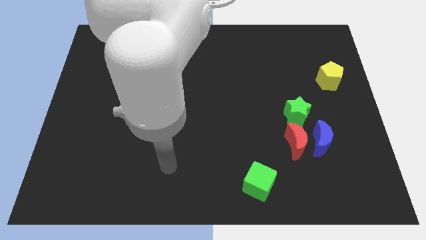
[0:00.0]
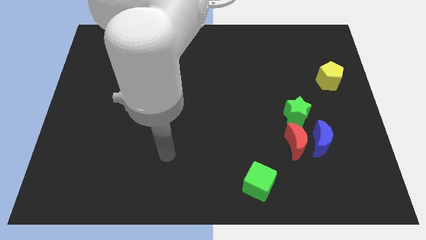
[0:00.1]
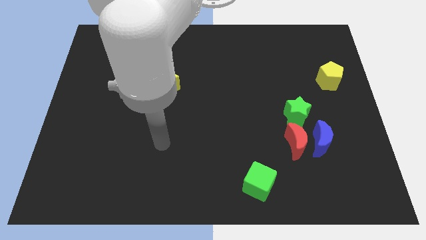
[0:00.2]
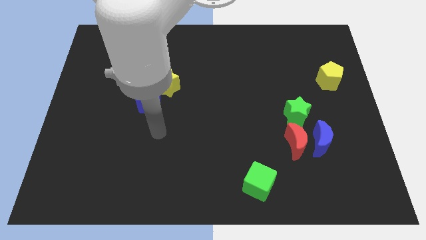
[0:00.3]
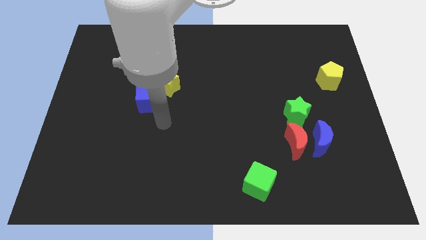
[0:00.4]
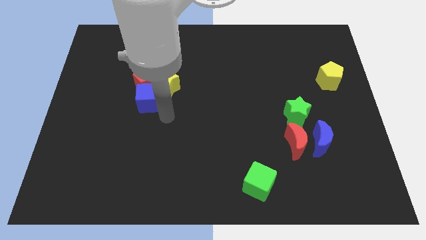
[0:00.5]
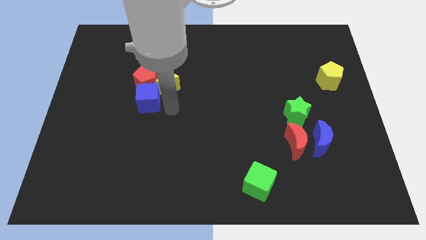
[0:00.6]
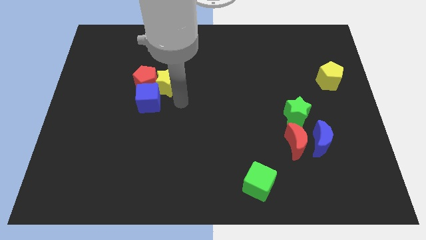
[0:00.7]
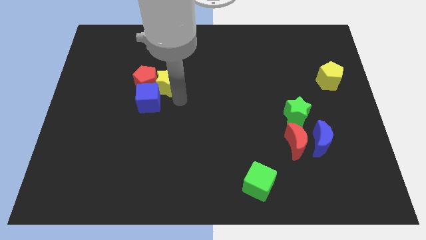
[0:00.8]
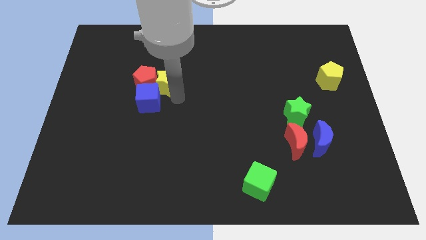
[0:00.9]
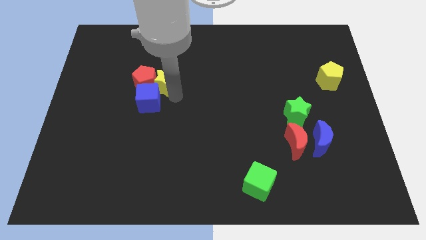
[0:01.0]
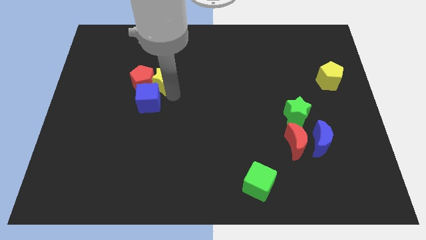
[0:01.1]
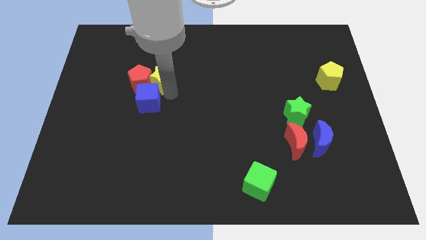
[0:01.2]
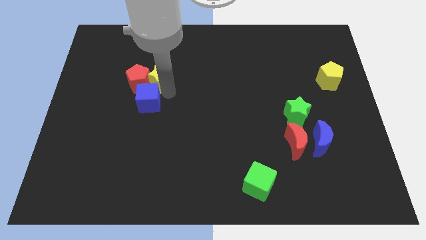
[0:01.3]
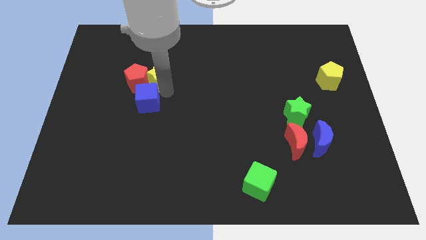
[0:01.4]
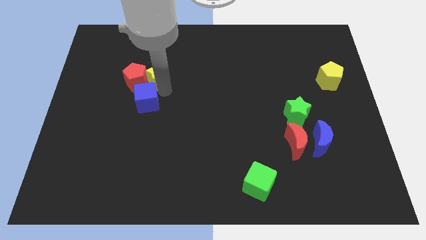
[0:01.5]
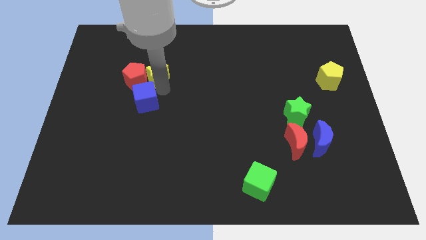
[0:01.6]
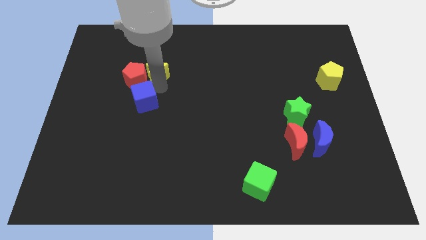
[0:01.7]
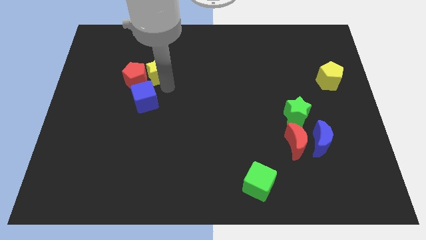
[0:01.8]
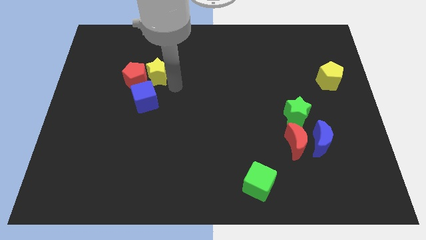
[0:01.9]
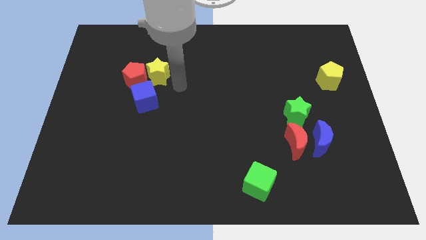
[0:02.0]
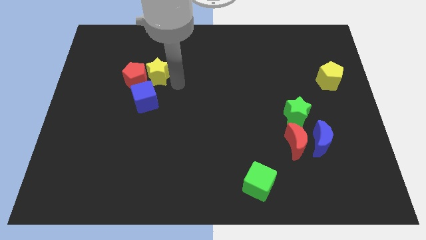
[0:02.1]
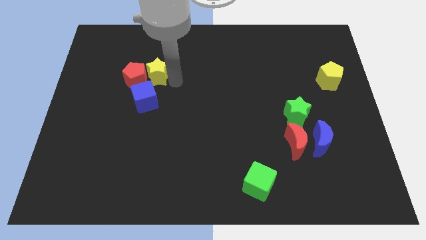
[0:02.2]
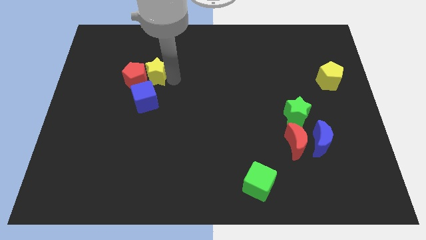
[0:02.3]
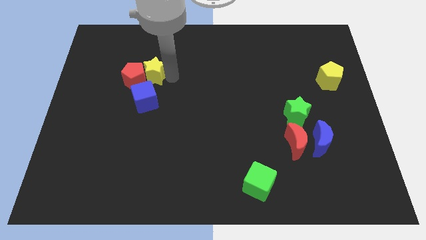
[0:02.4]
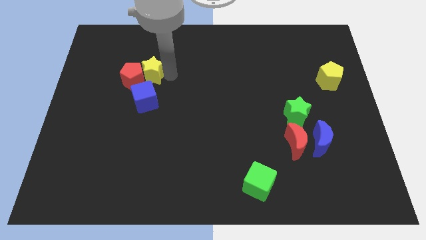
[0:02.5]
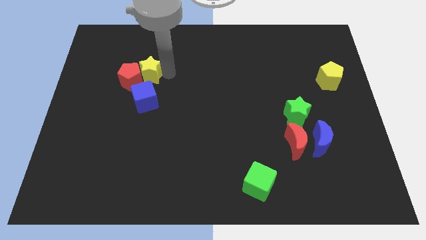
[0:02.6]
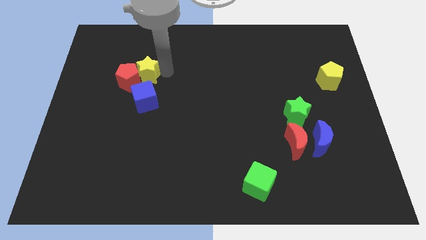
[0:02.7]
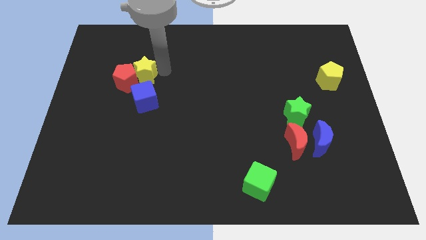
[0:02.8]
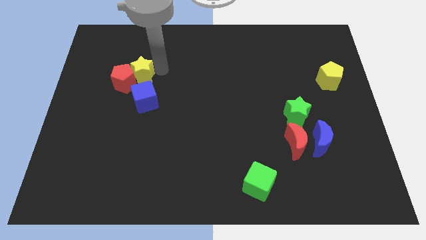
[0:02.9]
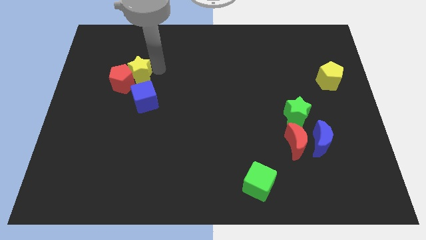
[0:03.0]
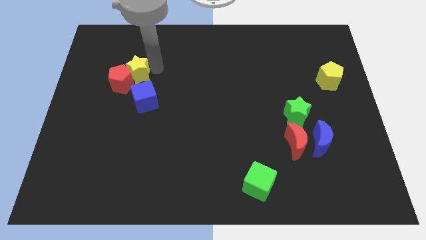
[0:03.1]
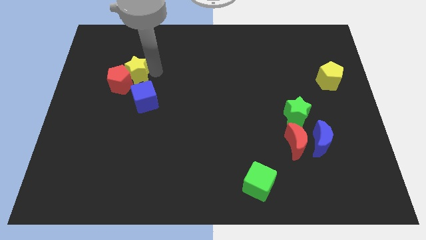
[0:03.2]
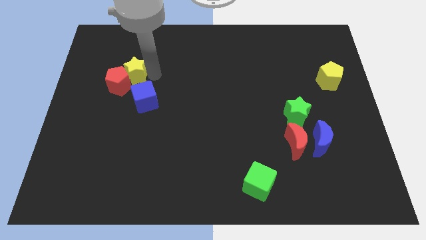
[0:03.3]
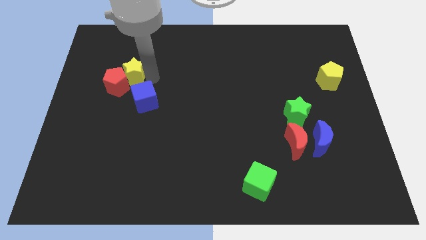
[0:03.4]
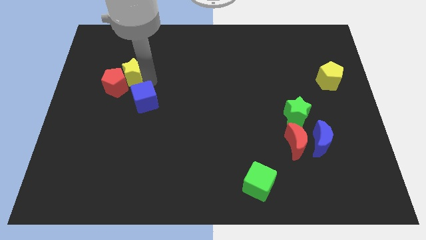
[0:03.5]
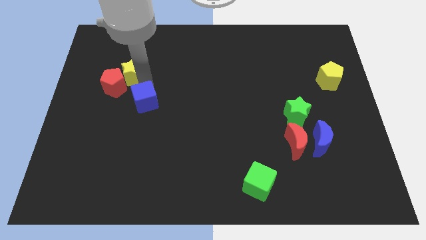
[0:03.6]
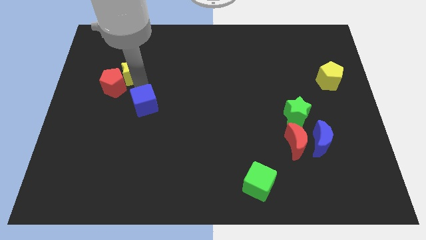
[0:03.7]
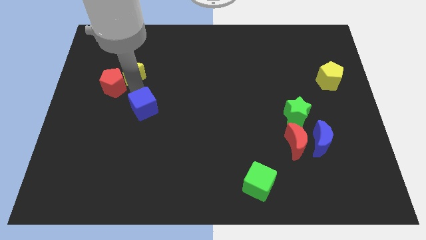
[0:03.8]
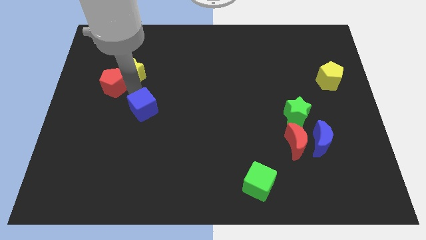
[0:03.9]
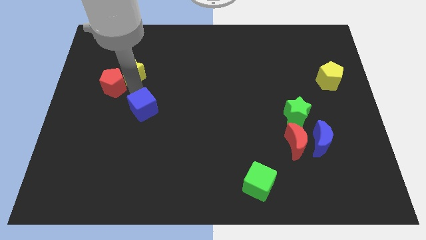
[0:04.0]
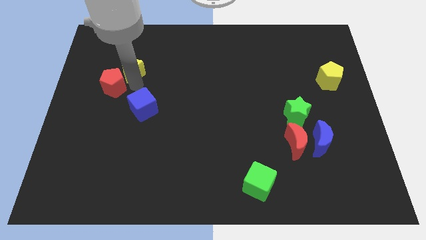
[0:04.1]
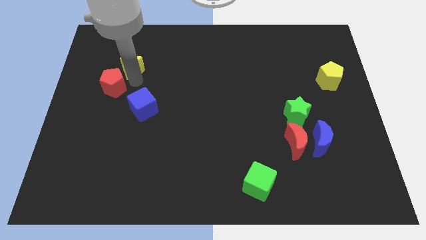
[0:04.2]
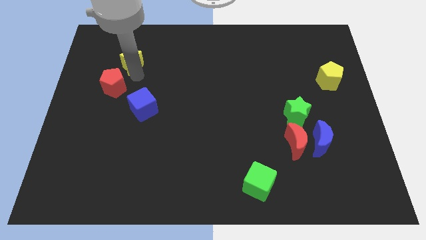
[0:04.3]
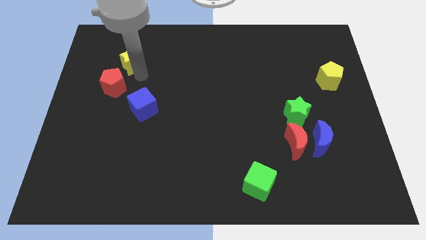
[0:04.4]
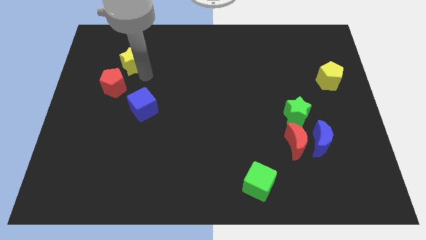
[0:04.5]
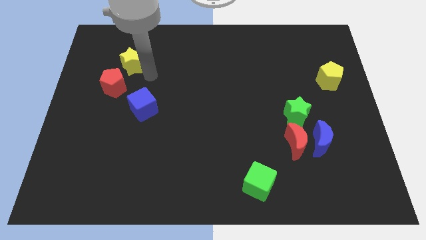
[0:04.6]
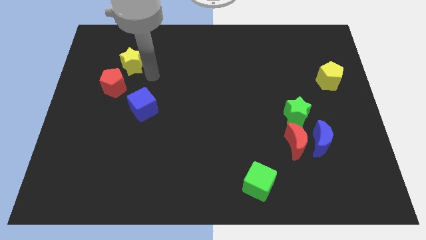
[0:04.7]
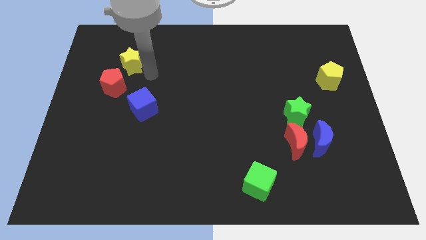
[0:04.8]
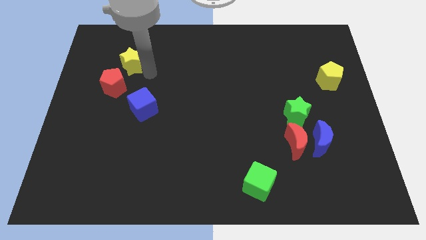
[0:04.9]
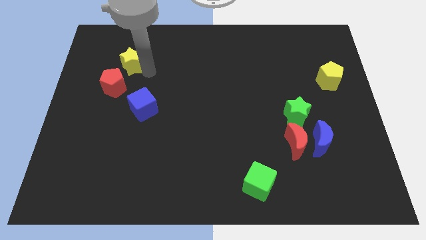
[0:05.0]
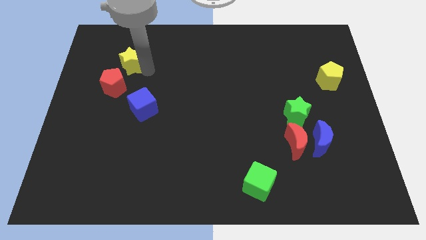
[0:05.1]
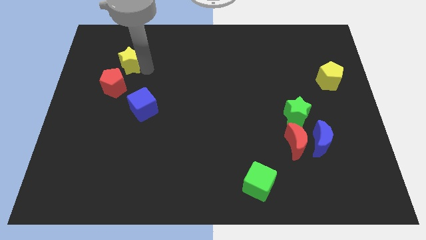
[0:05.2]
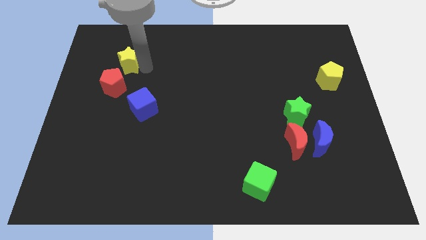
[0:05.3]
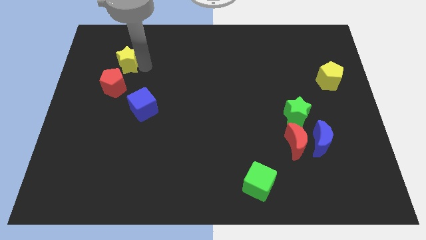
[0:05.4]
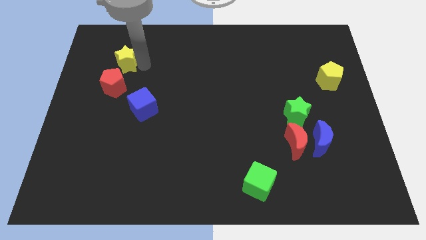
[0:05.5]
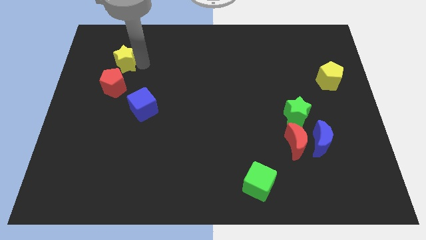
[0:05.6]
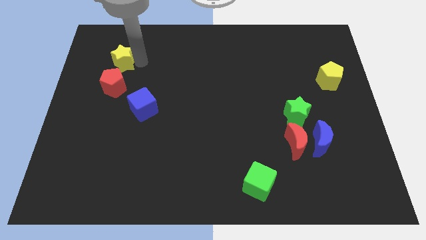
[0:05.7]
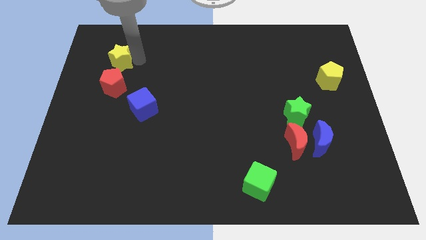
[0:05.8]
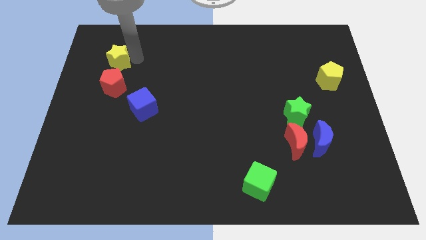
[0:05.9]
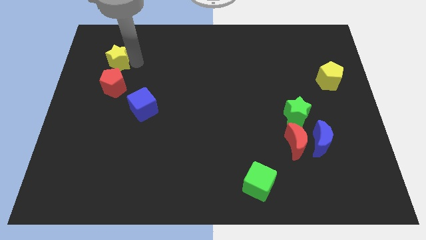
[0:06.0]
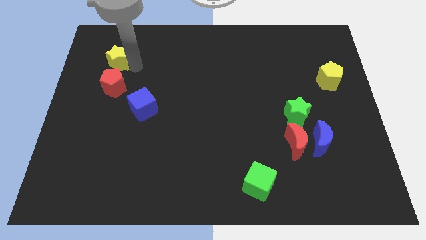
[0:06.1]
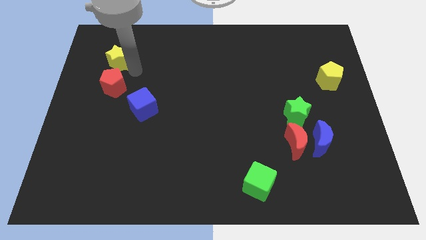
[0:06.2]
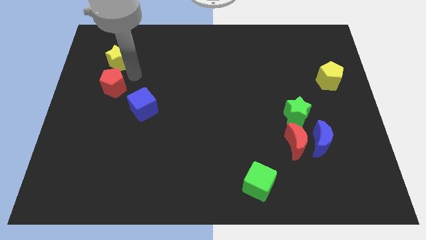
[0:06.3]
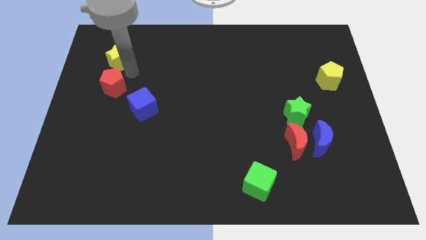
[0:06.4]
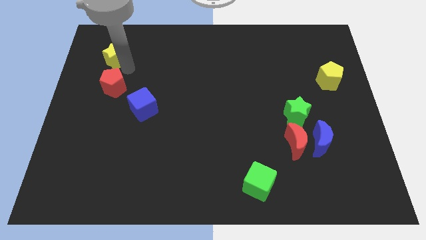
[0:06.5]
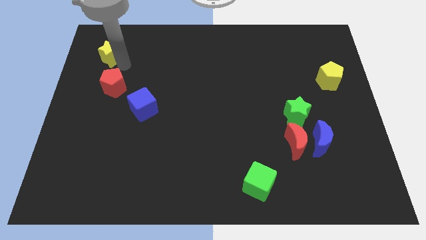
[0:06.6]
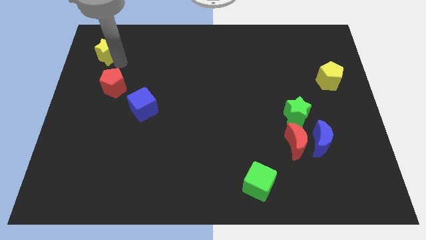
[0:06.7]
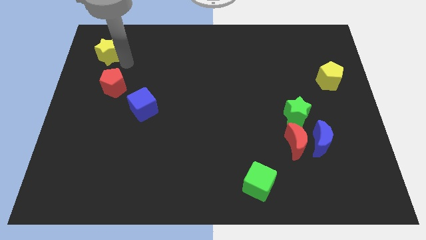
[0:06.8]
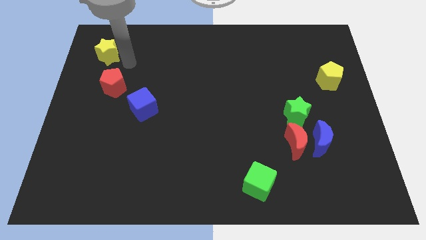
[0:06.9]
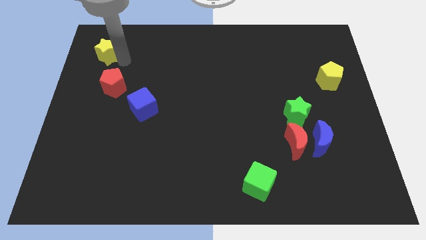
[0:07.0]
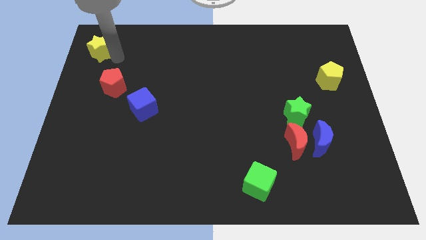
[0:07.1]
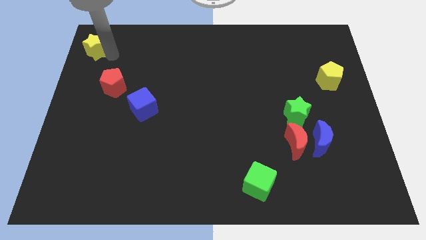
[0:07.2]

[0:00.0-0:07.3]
put the yellow star to the top left corner

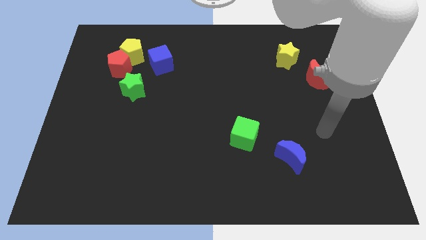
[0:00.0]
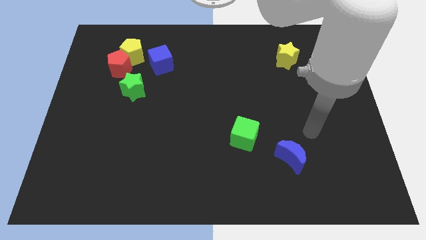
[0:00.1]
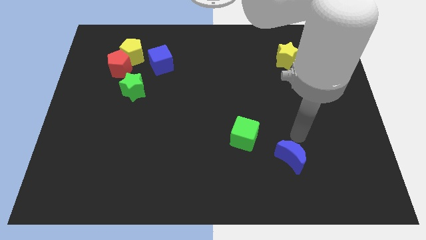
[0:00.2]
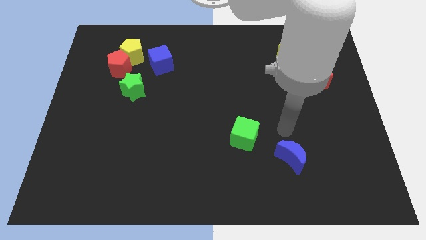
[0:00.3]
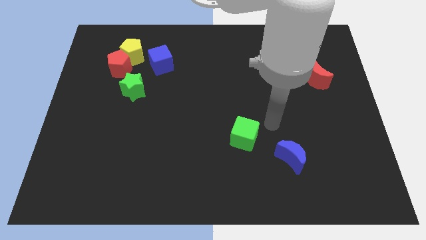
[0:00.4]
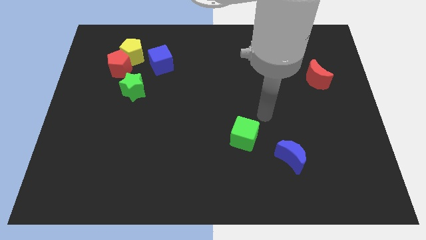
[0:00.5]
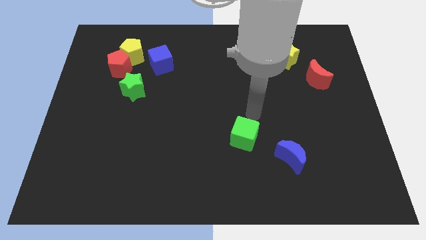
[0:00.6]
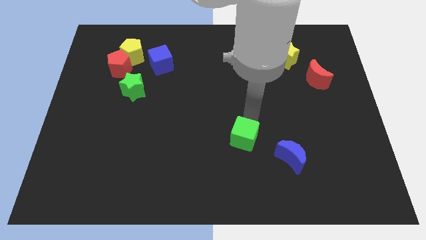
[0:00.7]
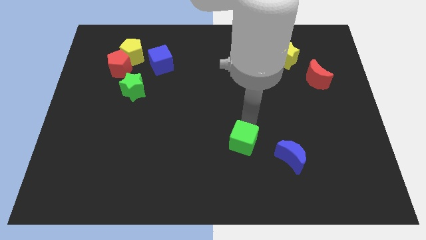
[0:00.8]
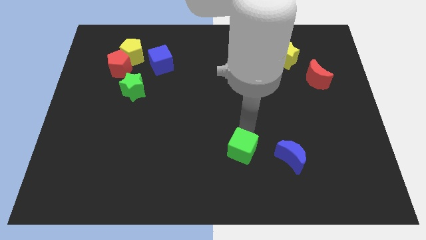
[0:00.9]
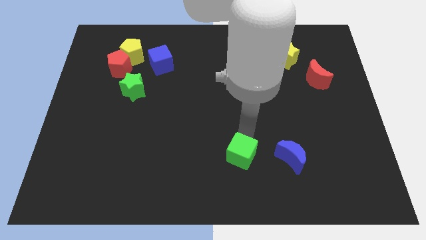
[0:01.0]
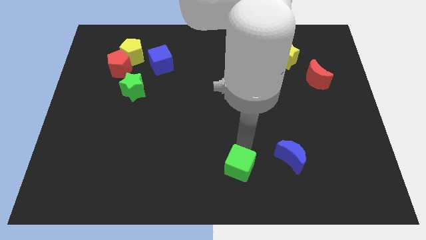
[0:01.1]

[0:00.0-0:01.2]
push the green cube to the bottom side
